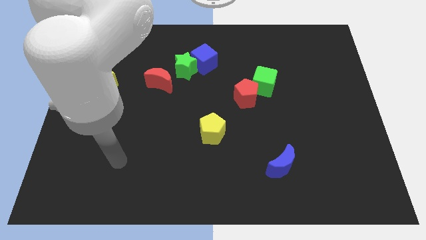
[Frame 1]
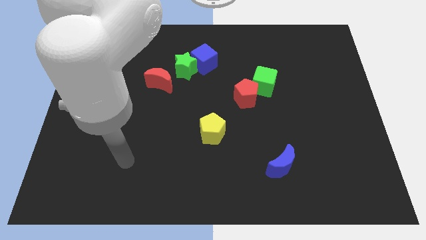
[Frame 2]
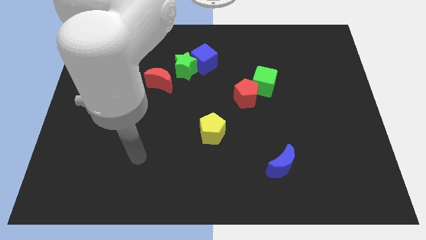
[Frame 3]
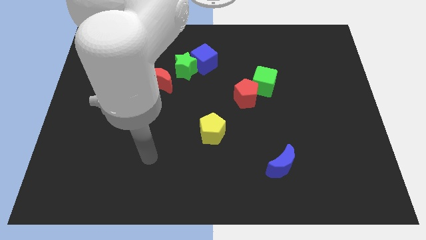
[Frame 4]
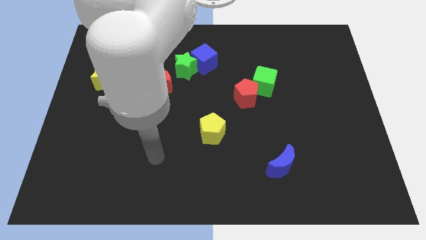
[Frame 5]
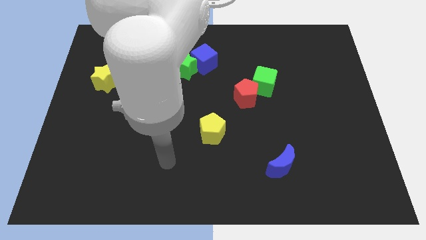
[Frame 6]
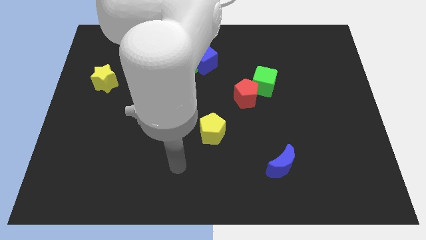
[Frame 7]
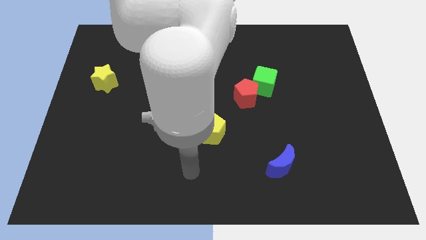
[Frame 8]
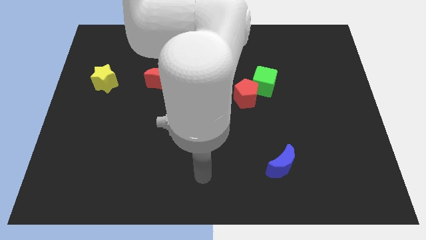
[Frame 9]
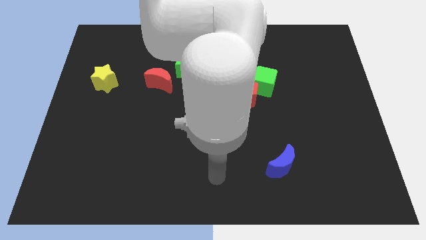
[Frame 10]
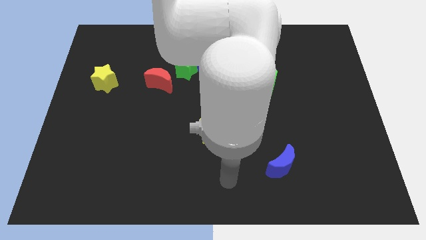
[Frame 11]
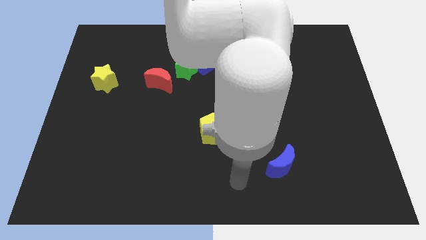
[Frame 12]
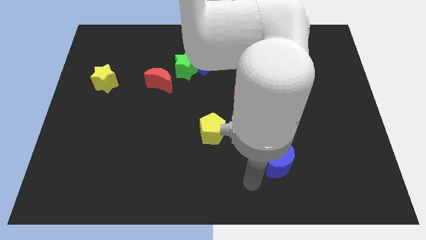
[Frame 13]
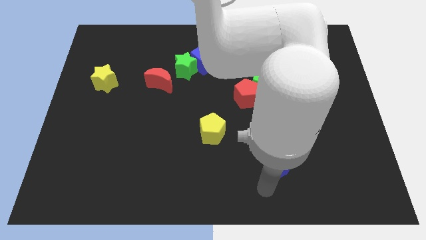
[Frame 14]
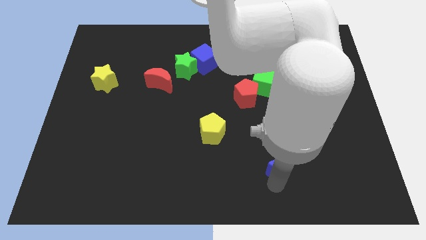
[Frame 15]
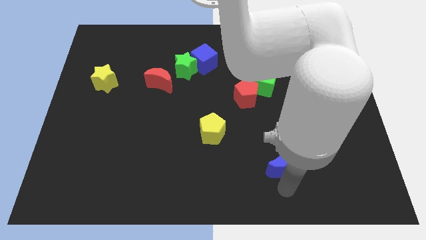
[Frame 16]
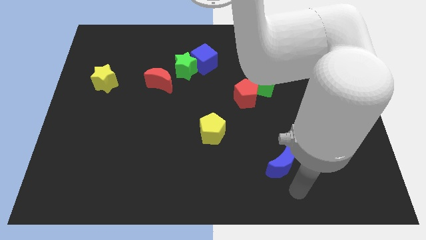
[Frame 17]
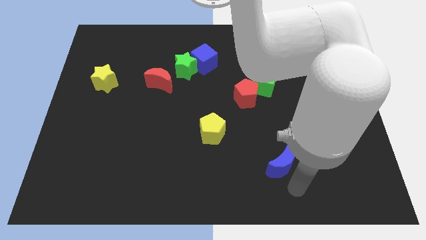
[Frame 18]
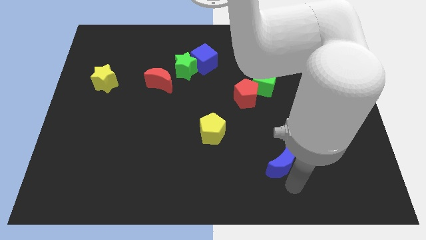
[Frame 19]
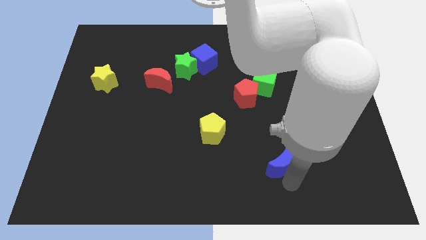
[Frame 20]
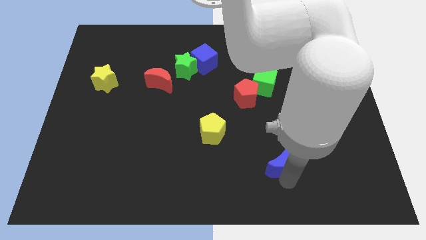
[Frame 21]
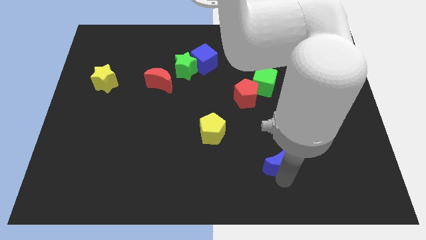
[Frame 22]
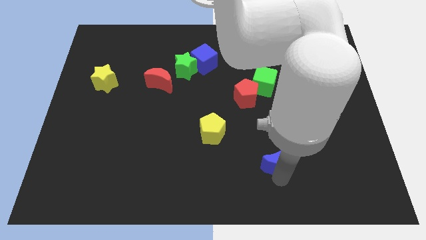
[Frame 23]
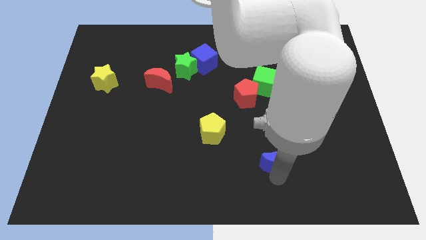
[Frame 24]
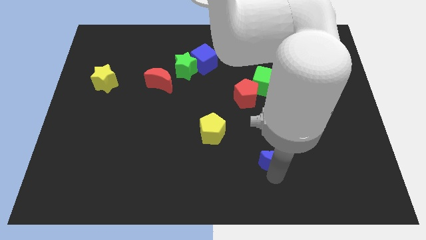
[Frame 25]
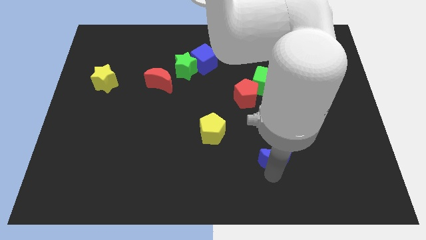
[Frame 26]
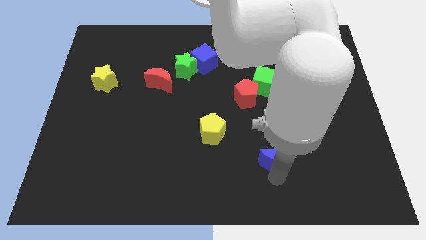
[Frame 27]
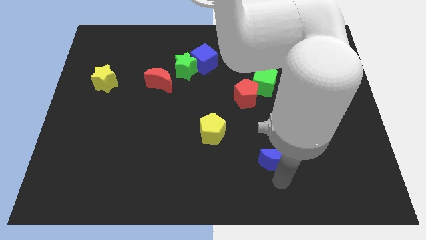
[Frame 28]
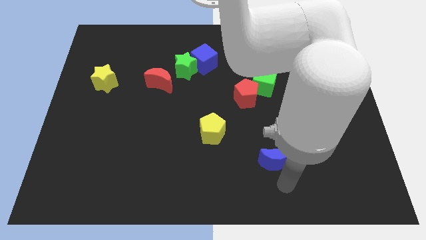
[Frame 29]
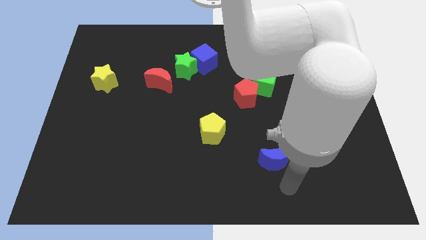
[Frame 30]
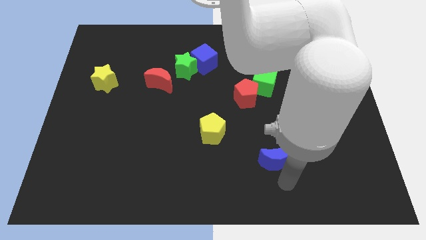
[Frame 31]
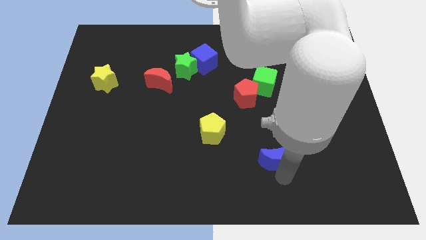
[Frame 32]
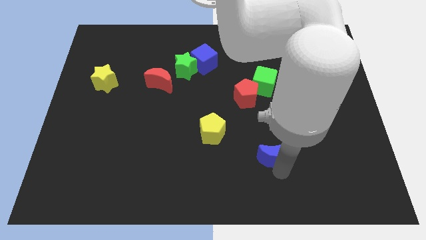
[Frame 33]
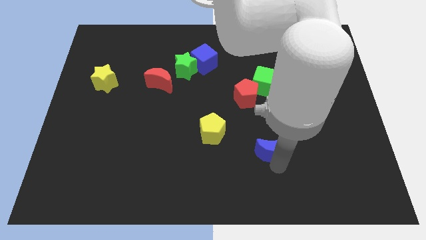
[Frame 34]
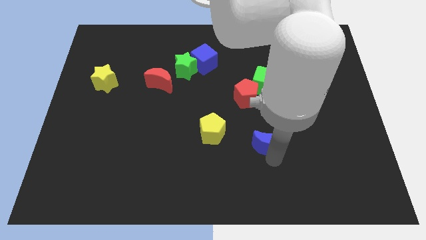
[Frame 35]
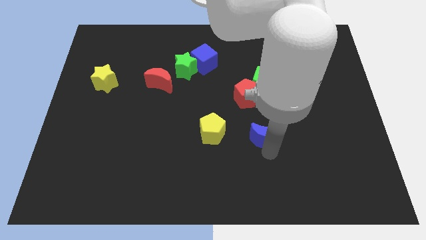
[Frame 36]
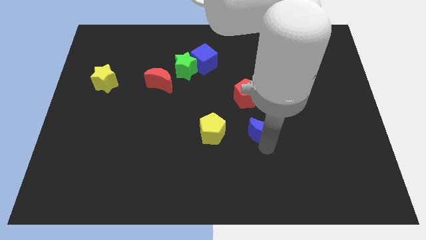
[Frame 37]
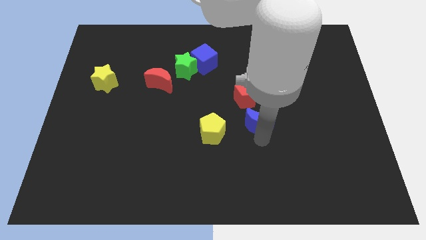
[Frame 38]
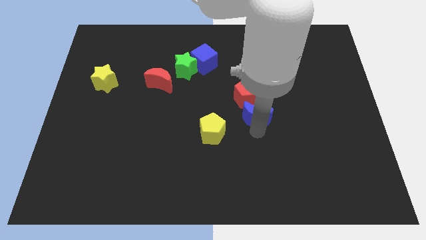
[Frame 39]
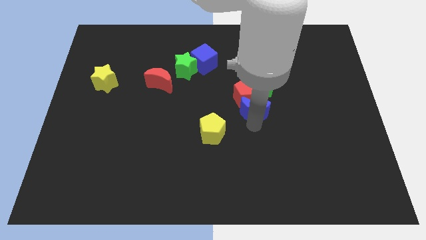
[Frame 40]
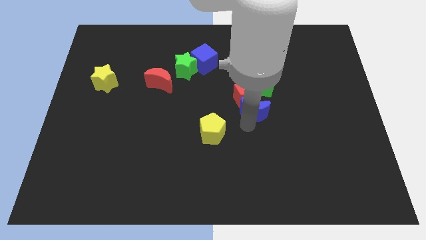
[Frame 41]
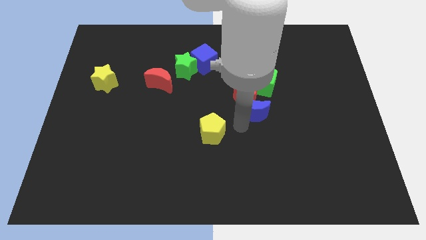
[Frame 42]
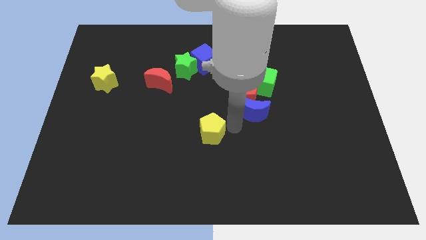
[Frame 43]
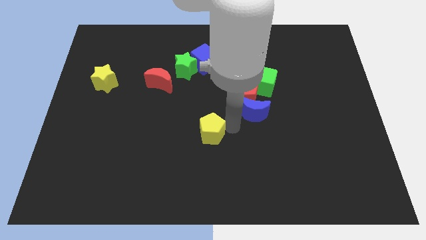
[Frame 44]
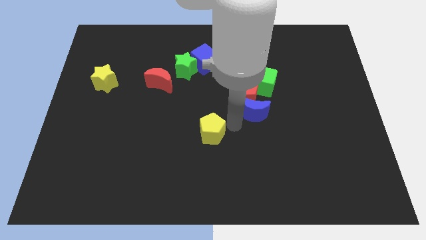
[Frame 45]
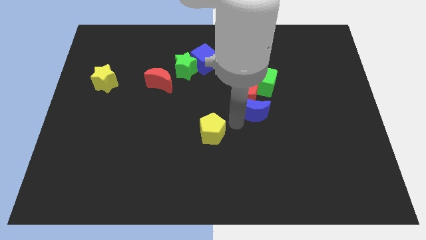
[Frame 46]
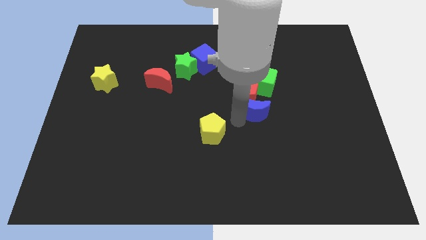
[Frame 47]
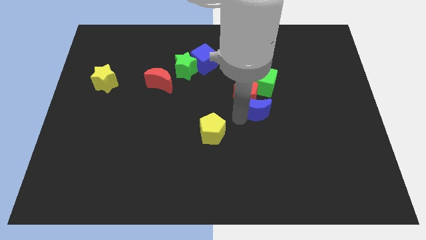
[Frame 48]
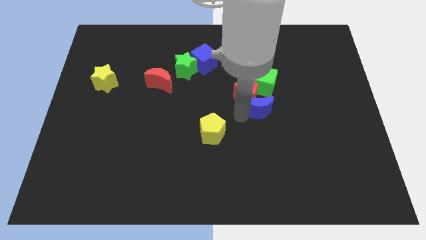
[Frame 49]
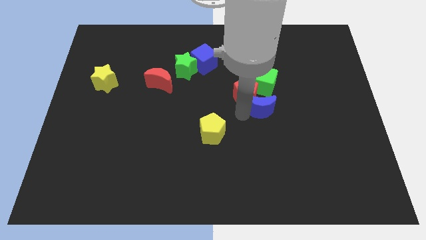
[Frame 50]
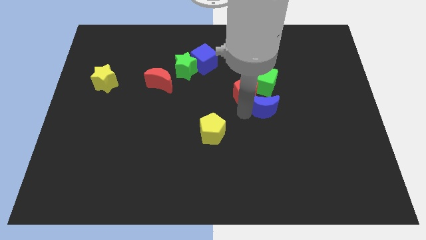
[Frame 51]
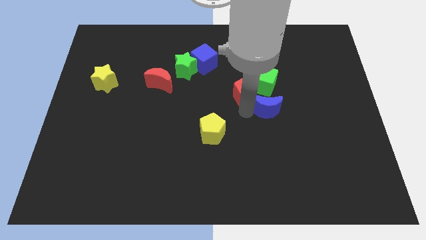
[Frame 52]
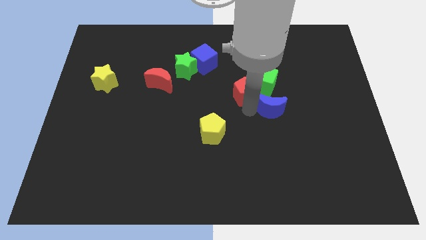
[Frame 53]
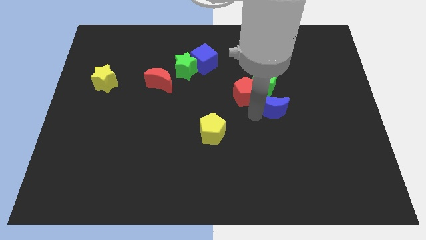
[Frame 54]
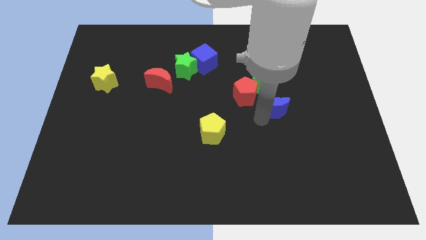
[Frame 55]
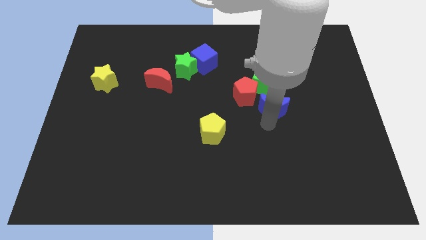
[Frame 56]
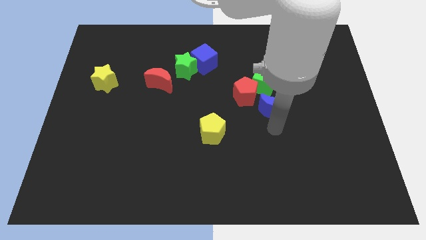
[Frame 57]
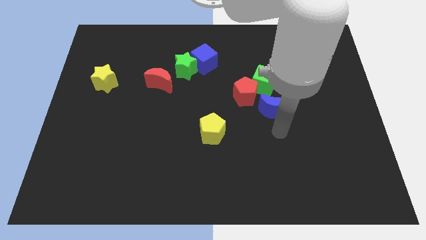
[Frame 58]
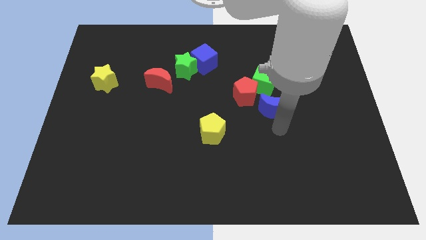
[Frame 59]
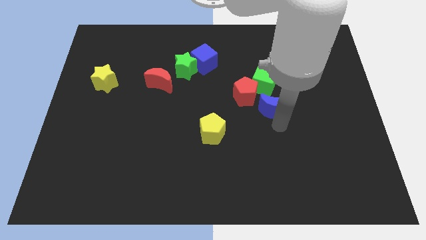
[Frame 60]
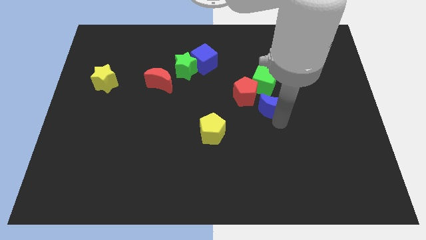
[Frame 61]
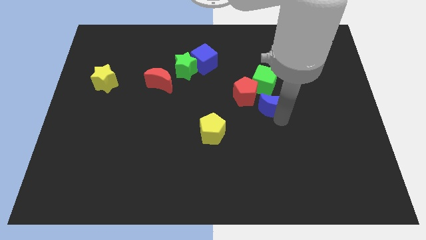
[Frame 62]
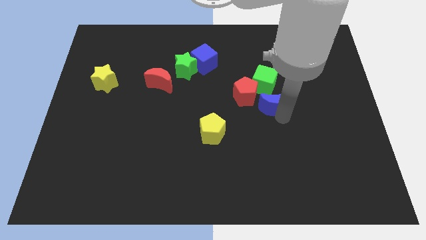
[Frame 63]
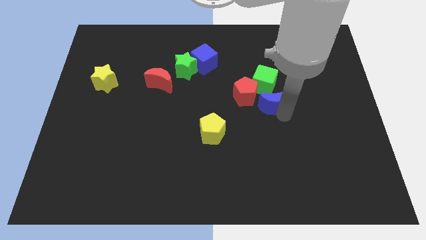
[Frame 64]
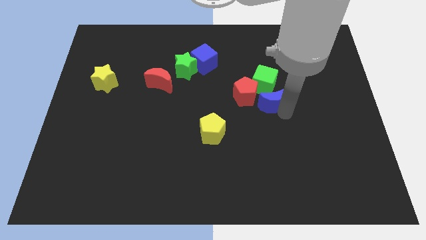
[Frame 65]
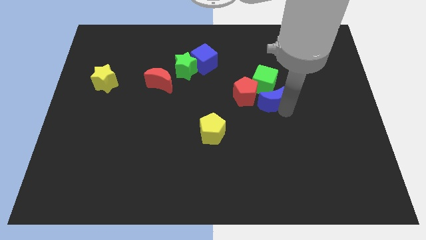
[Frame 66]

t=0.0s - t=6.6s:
move the blue moon next to the green cube

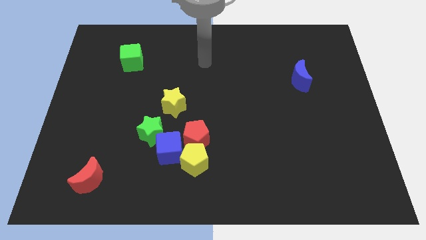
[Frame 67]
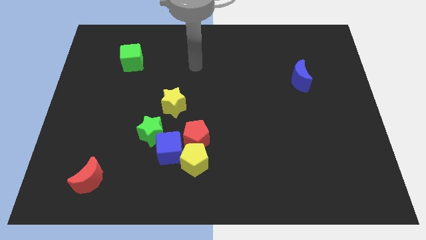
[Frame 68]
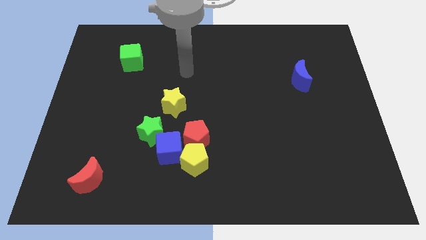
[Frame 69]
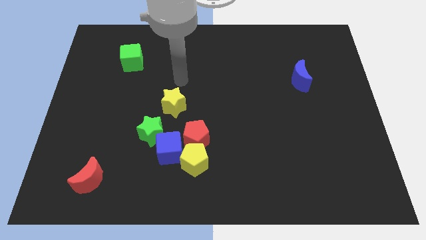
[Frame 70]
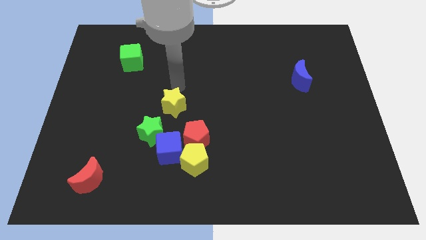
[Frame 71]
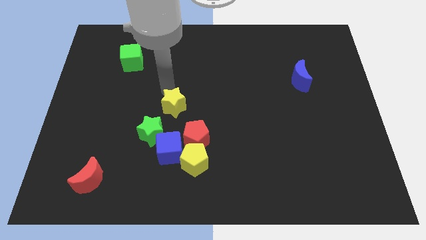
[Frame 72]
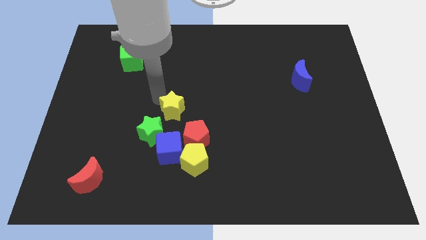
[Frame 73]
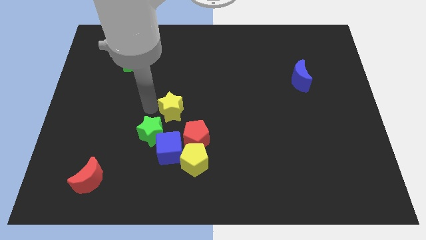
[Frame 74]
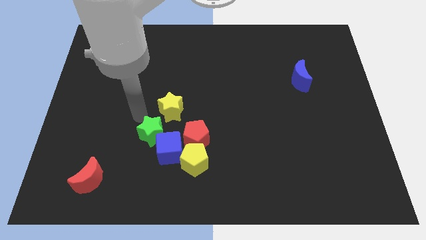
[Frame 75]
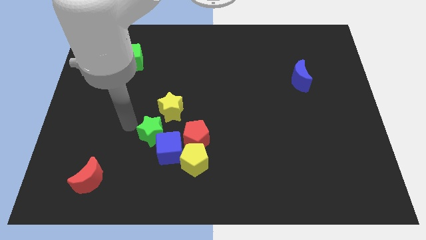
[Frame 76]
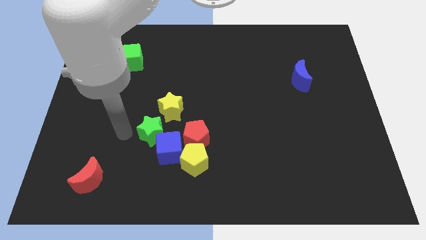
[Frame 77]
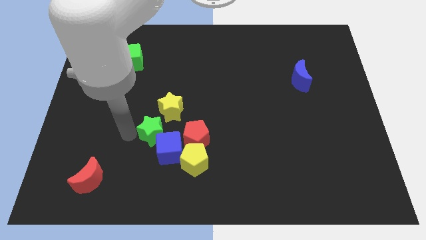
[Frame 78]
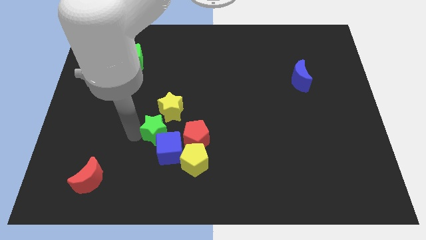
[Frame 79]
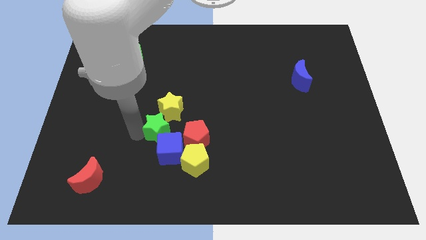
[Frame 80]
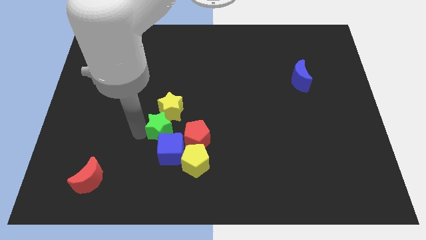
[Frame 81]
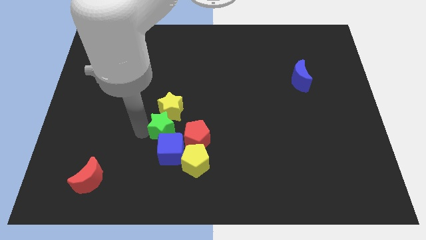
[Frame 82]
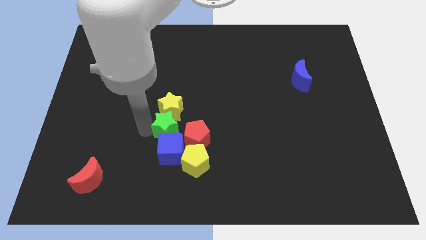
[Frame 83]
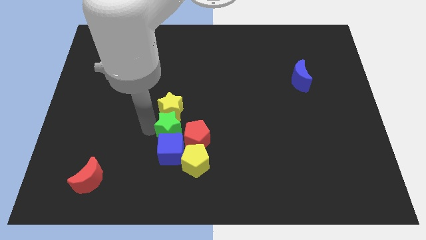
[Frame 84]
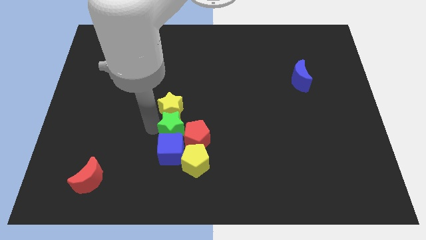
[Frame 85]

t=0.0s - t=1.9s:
put the green star close to the red pentagon
